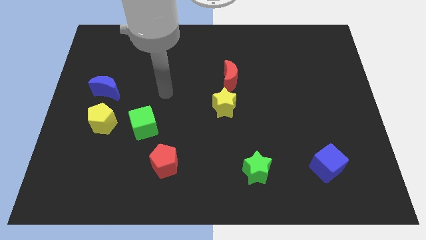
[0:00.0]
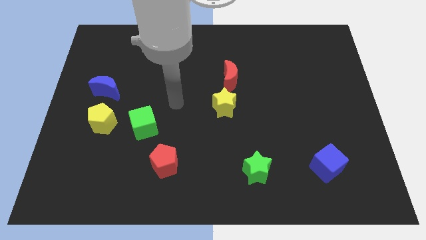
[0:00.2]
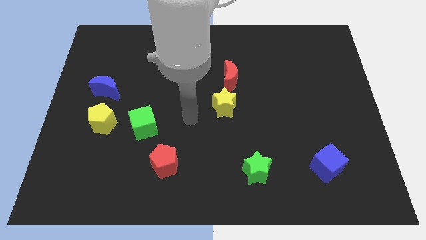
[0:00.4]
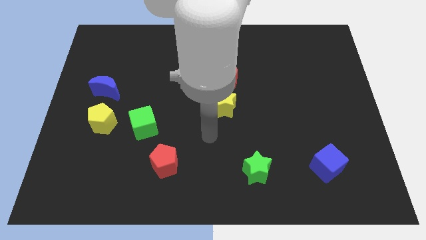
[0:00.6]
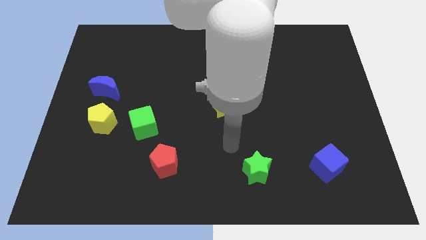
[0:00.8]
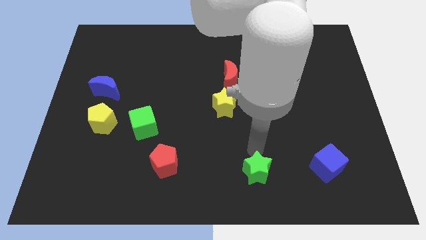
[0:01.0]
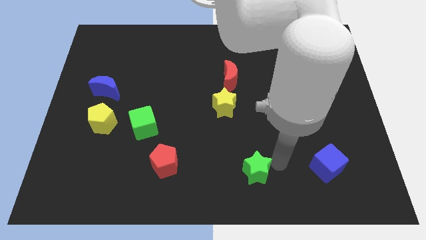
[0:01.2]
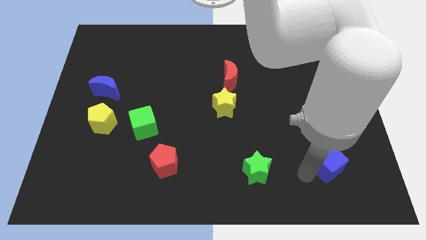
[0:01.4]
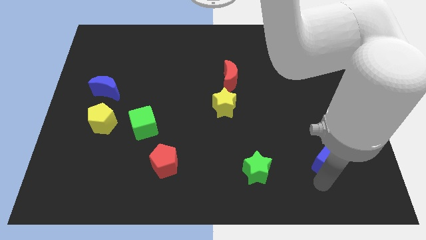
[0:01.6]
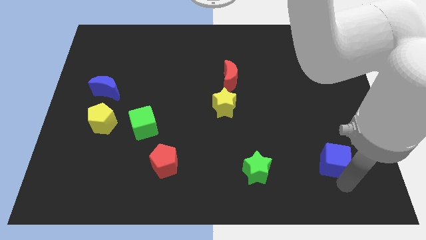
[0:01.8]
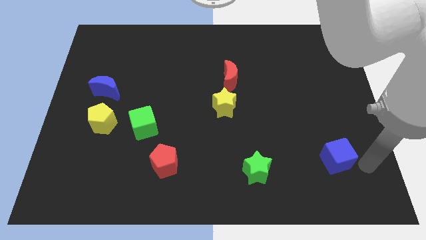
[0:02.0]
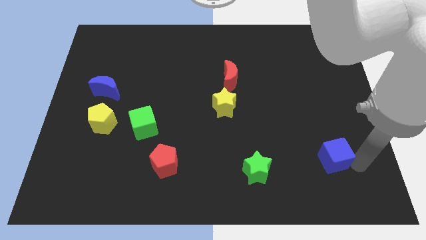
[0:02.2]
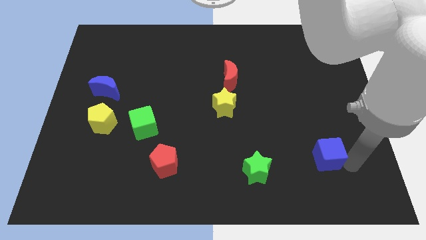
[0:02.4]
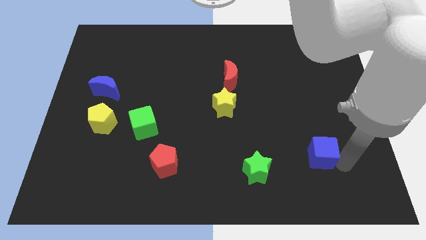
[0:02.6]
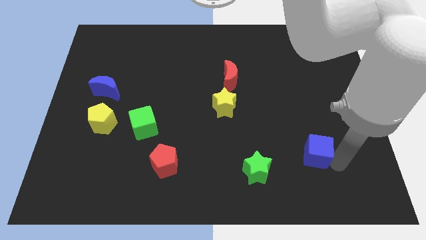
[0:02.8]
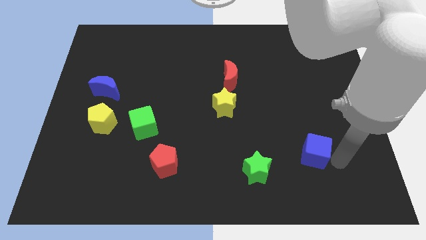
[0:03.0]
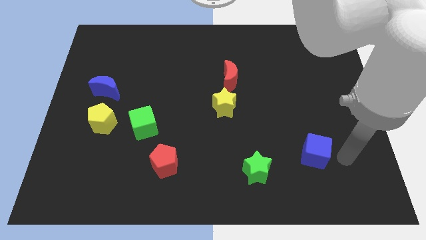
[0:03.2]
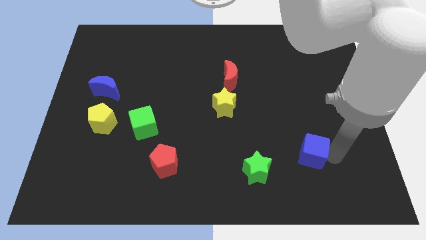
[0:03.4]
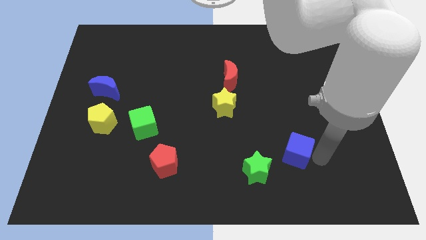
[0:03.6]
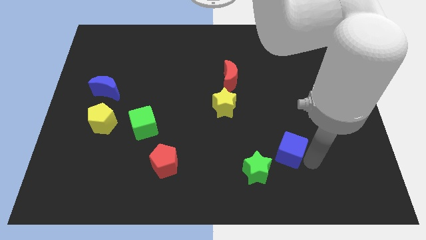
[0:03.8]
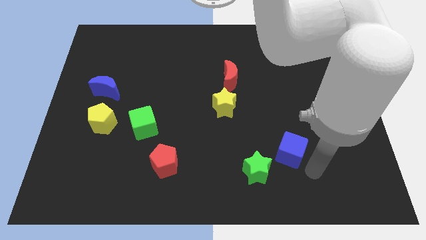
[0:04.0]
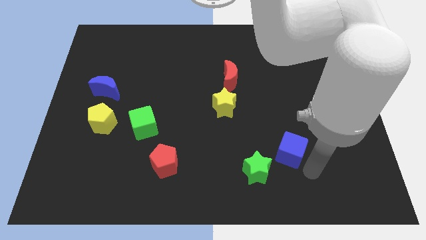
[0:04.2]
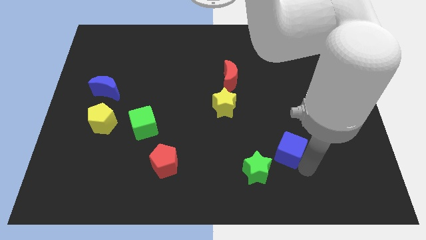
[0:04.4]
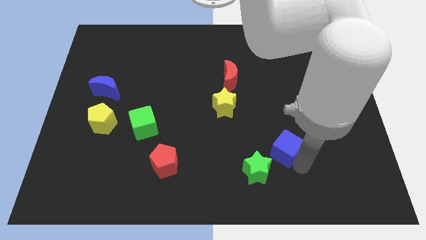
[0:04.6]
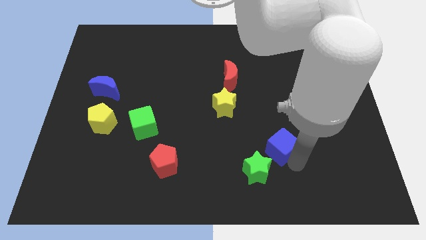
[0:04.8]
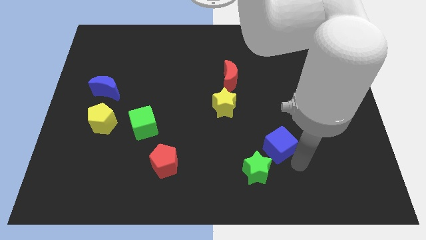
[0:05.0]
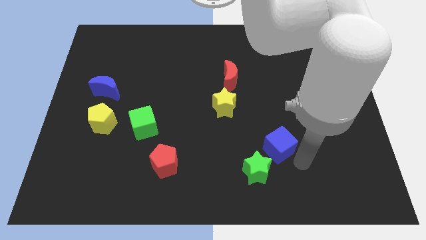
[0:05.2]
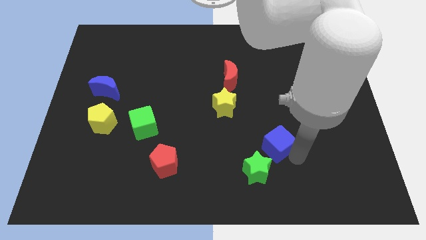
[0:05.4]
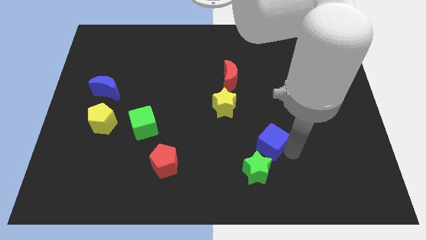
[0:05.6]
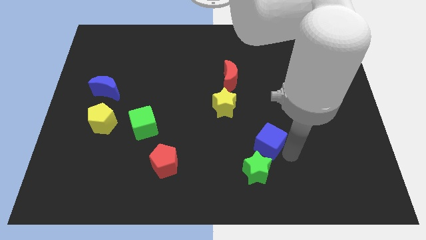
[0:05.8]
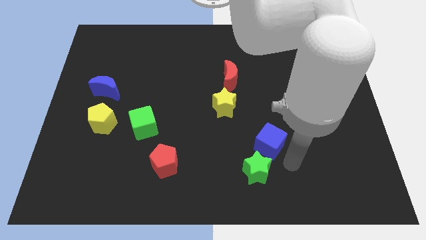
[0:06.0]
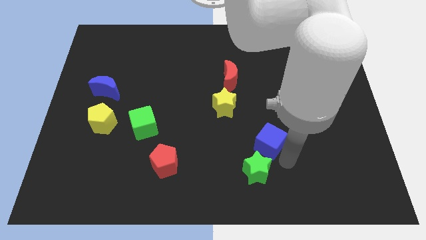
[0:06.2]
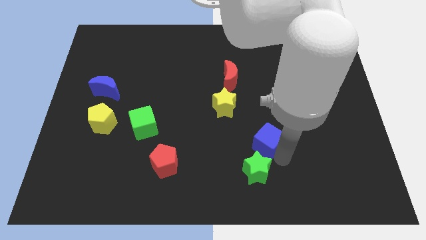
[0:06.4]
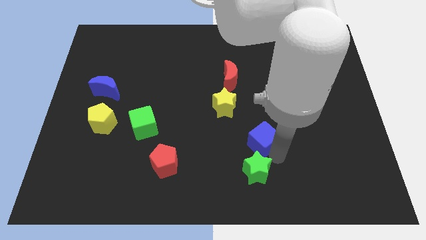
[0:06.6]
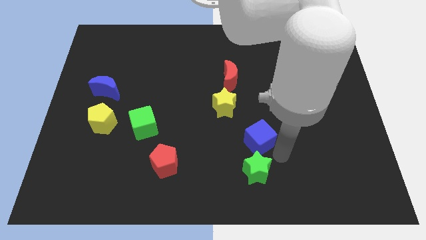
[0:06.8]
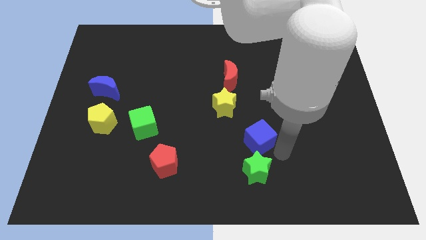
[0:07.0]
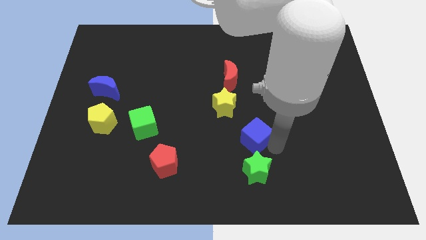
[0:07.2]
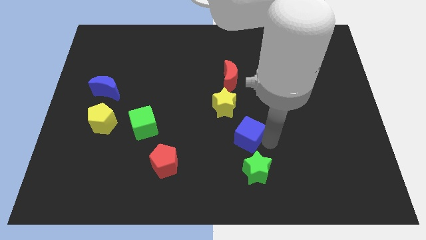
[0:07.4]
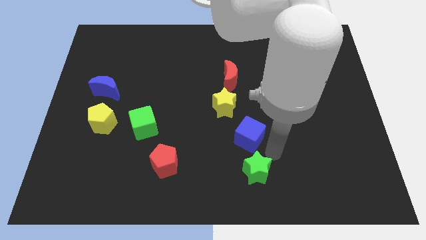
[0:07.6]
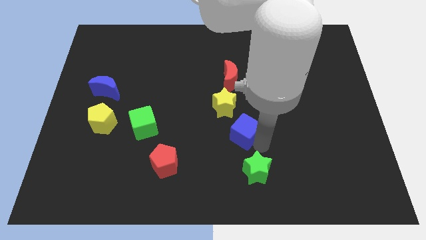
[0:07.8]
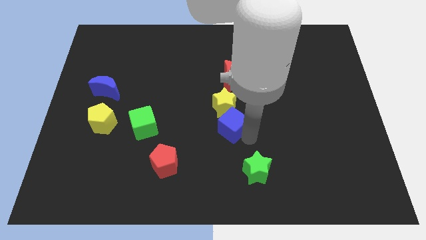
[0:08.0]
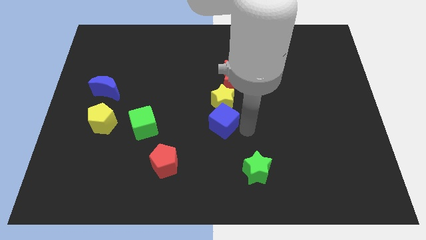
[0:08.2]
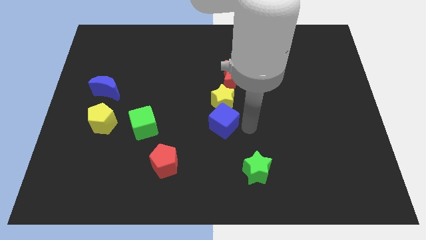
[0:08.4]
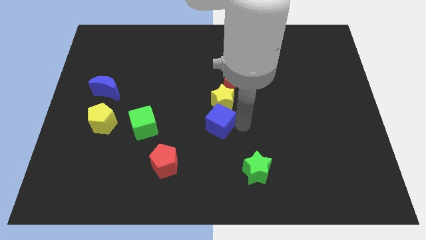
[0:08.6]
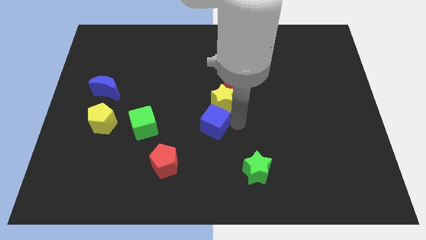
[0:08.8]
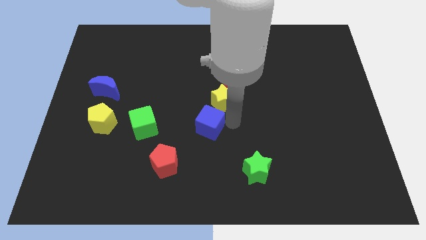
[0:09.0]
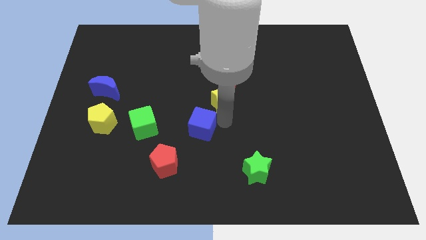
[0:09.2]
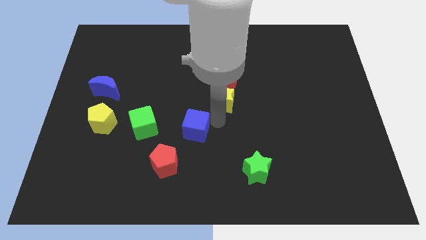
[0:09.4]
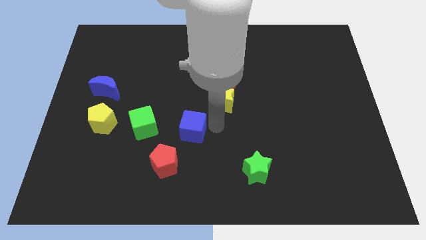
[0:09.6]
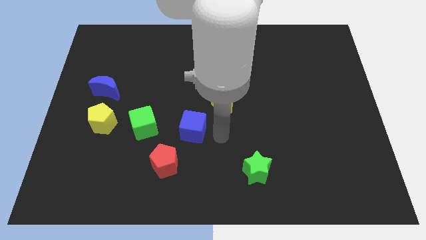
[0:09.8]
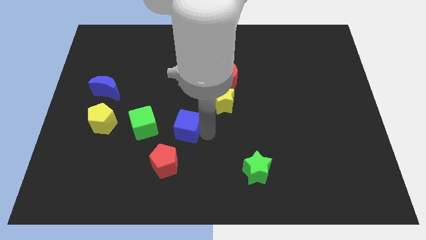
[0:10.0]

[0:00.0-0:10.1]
push the blue cube to the top side of the red pentagon

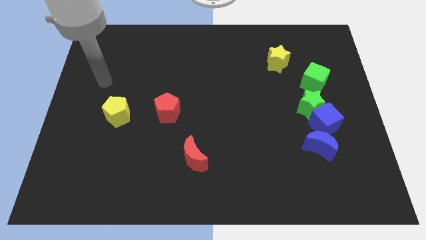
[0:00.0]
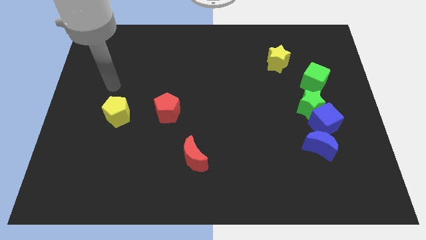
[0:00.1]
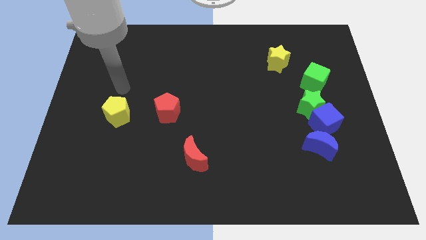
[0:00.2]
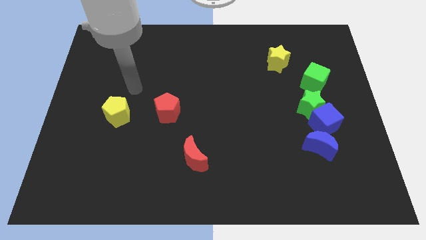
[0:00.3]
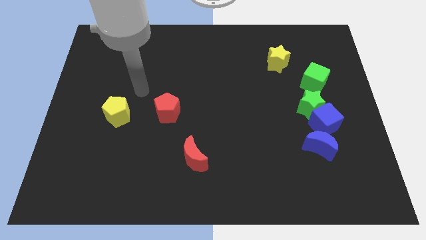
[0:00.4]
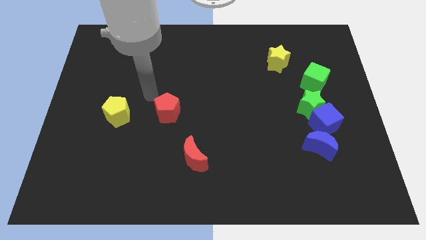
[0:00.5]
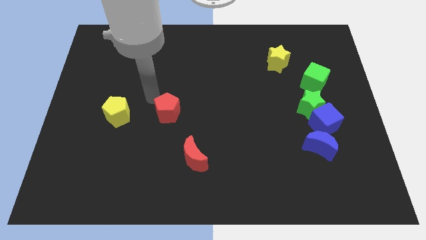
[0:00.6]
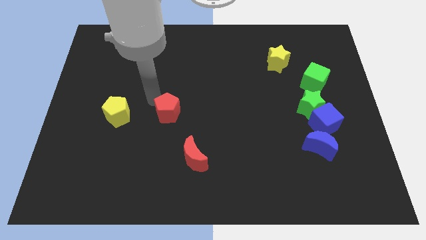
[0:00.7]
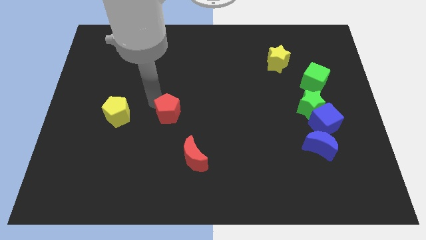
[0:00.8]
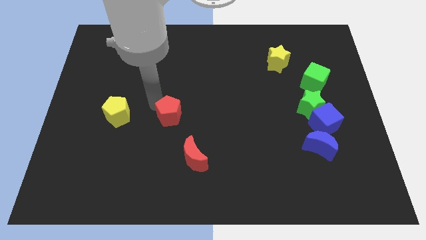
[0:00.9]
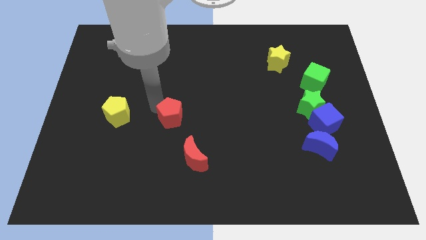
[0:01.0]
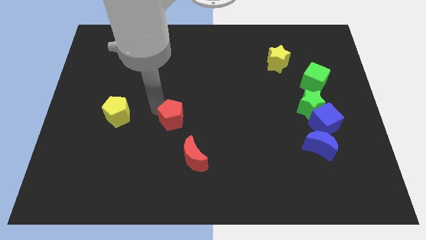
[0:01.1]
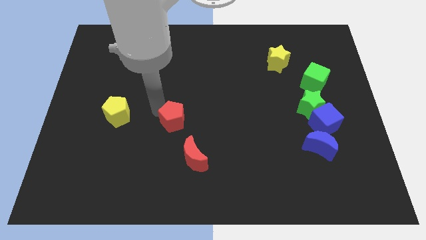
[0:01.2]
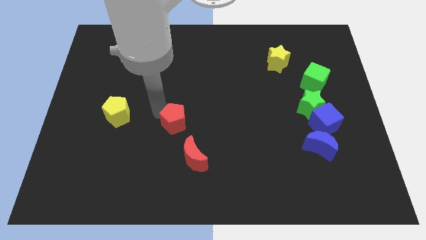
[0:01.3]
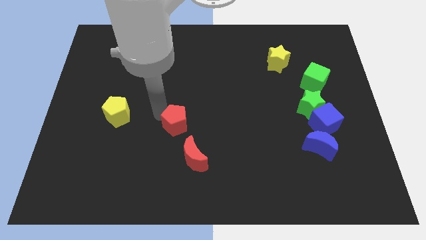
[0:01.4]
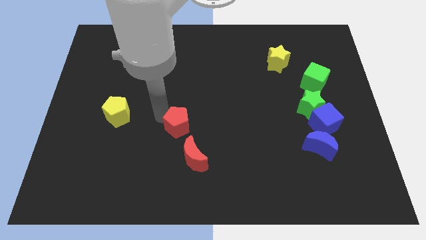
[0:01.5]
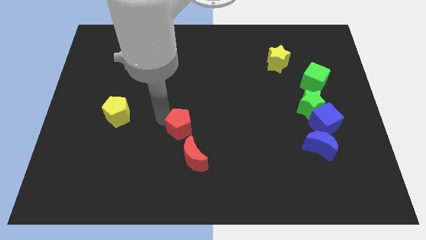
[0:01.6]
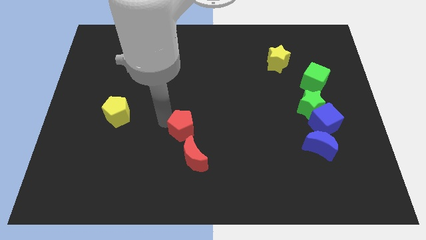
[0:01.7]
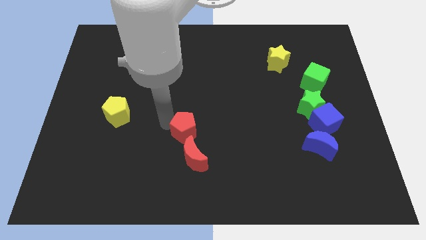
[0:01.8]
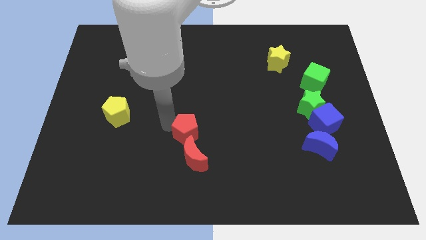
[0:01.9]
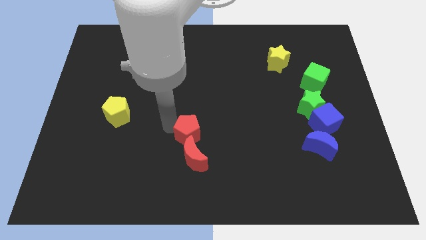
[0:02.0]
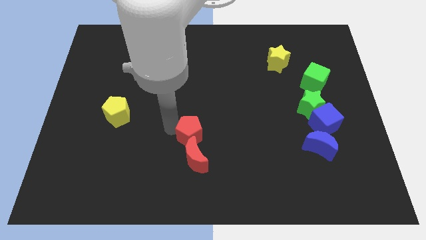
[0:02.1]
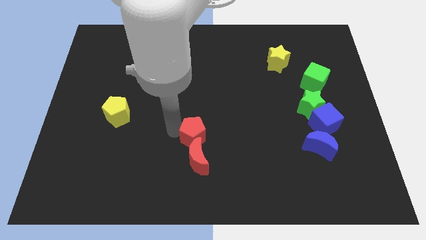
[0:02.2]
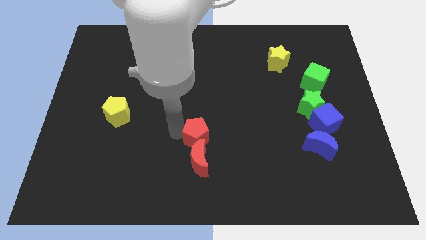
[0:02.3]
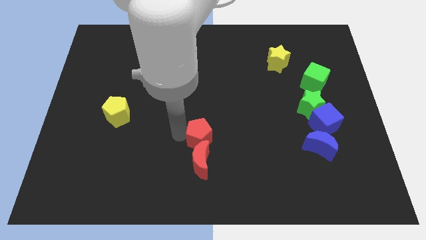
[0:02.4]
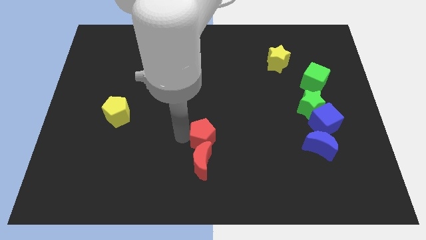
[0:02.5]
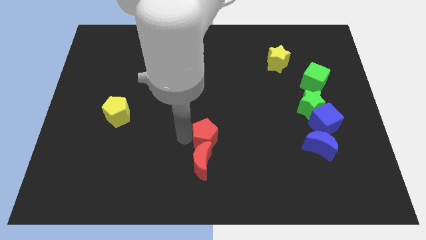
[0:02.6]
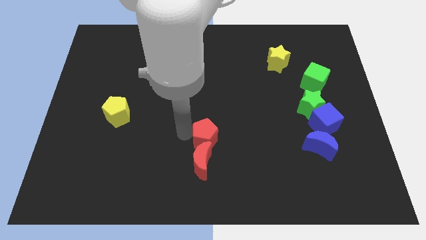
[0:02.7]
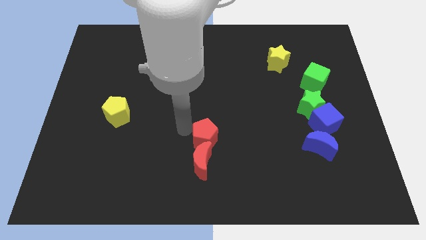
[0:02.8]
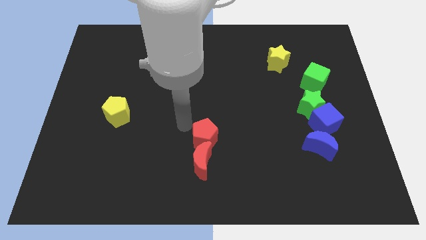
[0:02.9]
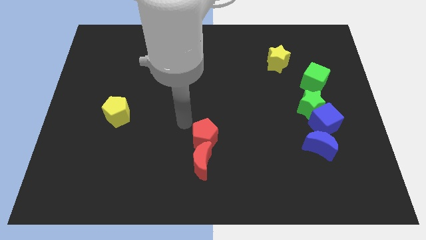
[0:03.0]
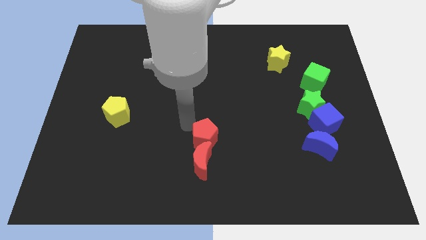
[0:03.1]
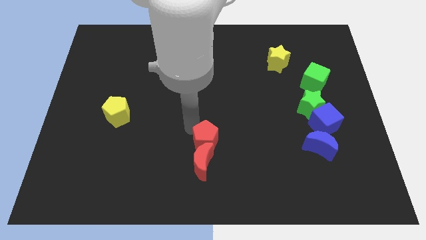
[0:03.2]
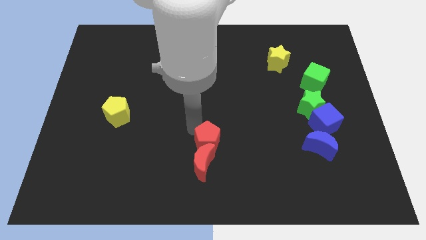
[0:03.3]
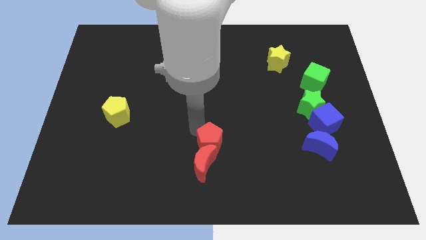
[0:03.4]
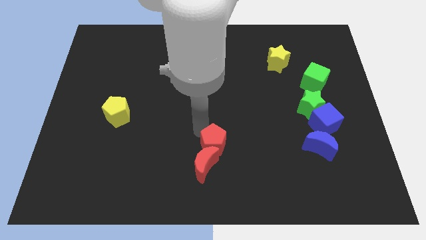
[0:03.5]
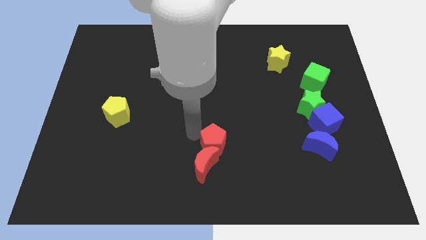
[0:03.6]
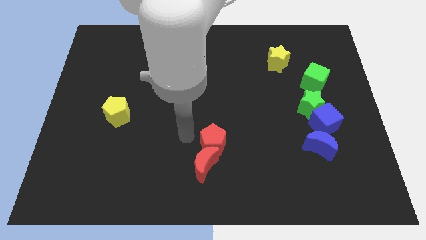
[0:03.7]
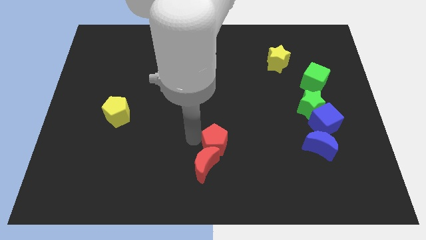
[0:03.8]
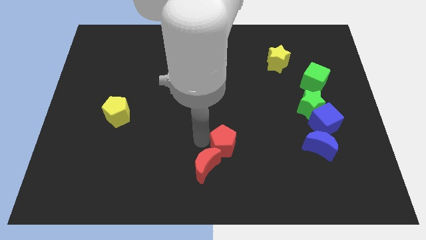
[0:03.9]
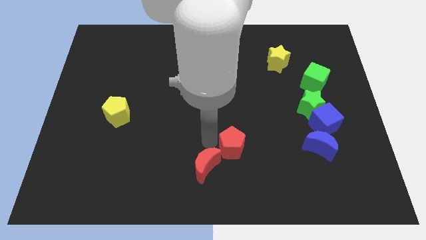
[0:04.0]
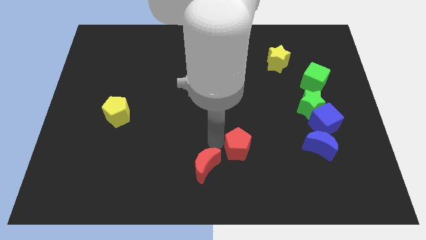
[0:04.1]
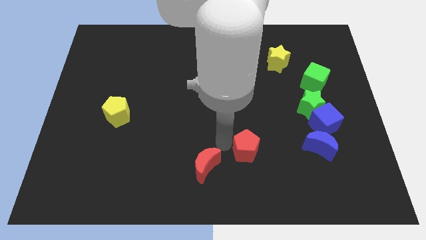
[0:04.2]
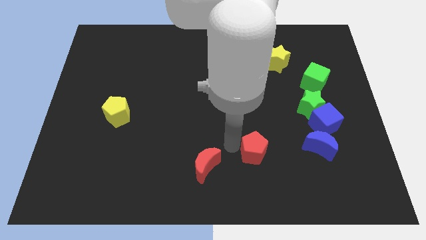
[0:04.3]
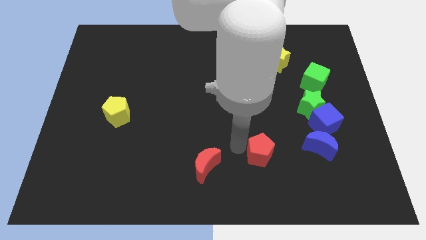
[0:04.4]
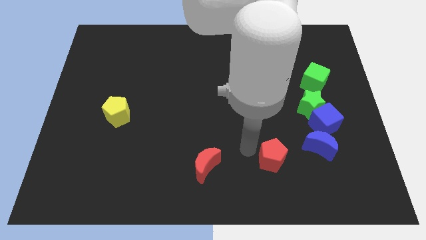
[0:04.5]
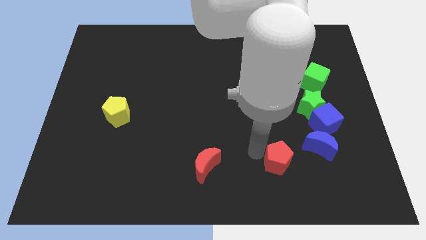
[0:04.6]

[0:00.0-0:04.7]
move the red pentagon to the bottom left of the blue moon
